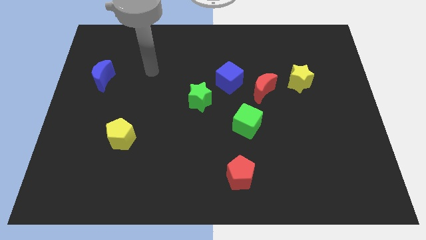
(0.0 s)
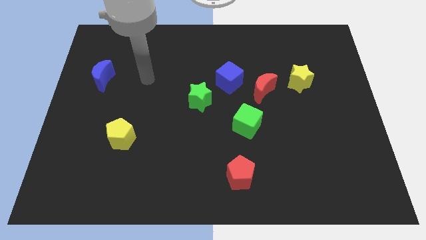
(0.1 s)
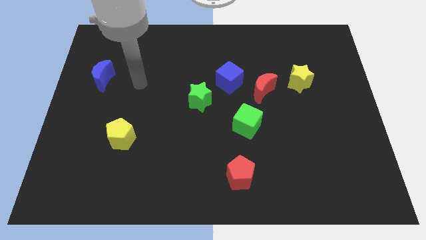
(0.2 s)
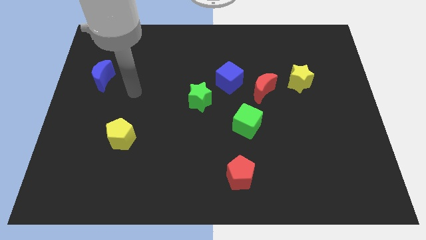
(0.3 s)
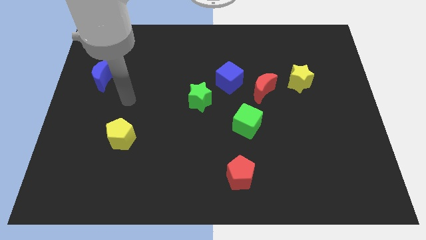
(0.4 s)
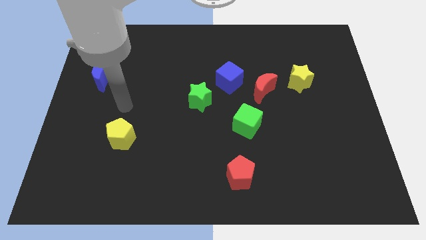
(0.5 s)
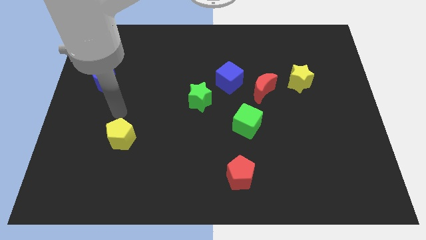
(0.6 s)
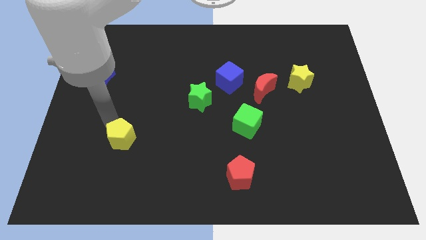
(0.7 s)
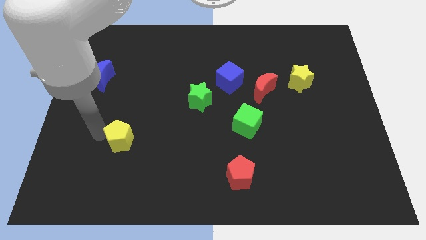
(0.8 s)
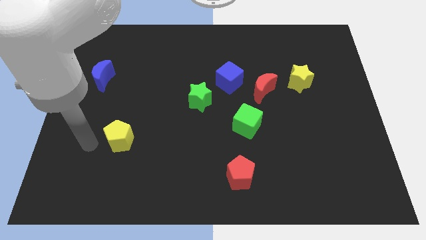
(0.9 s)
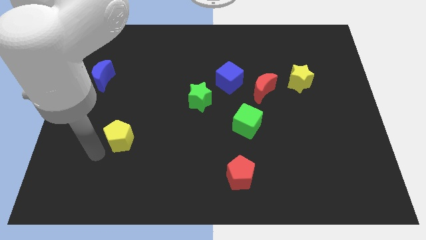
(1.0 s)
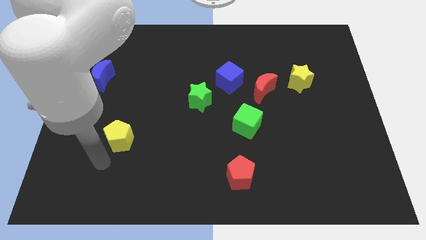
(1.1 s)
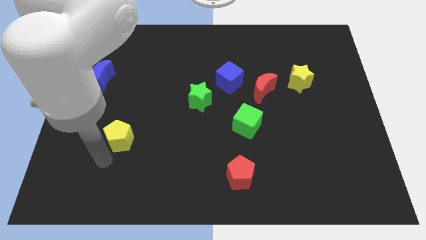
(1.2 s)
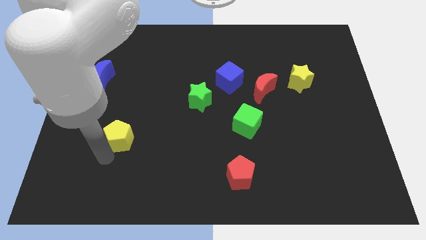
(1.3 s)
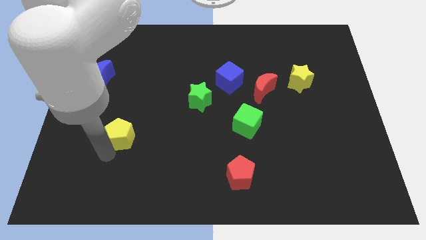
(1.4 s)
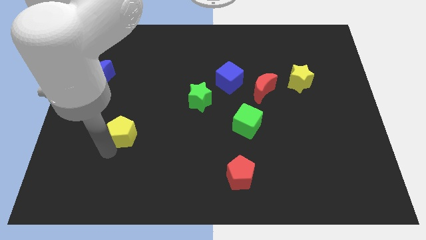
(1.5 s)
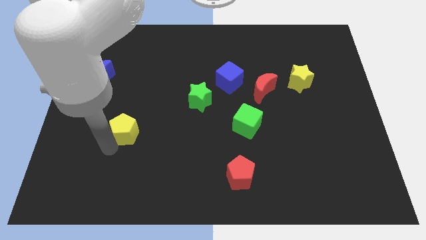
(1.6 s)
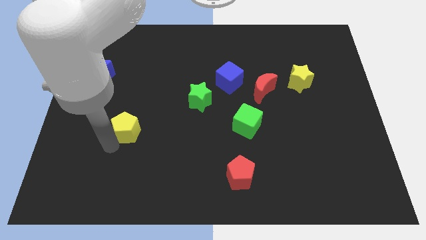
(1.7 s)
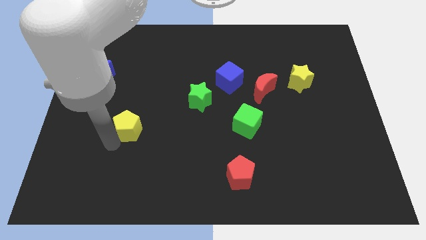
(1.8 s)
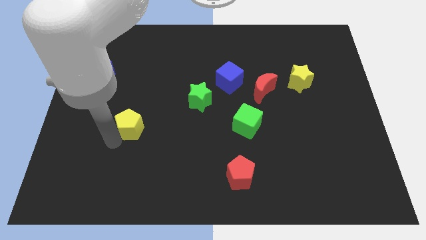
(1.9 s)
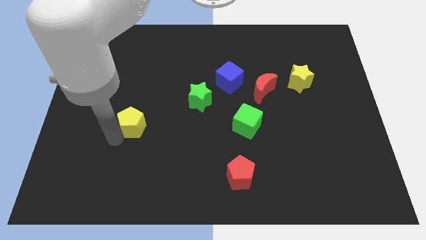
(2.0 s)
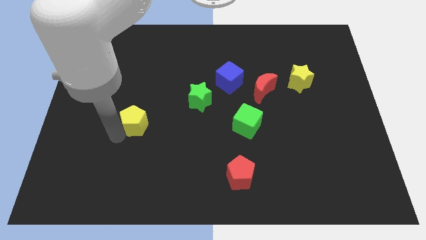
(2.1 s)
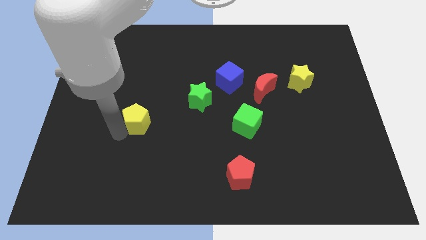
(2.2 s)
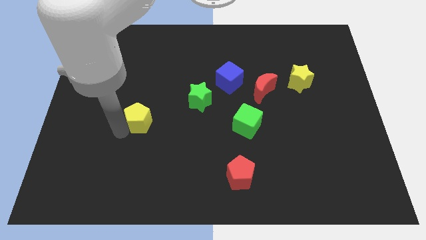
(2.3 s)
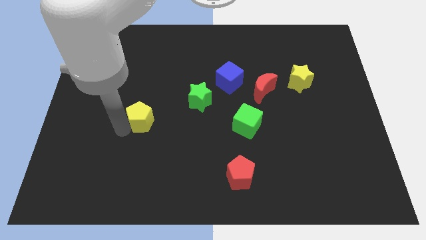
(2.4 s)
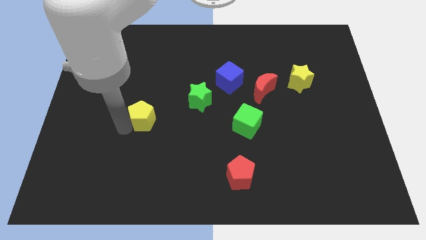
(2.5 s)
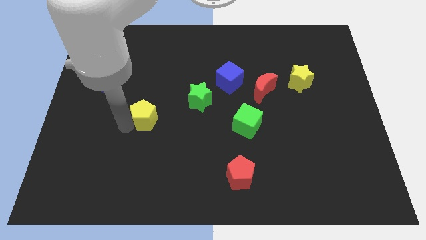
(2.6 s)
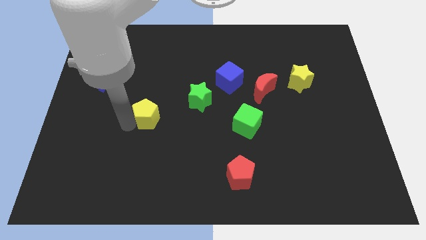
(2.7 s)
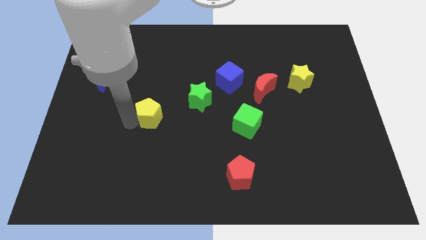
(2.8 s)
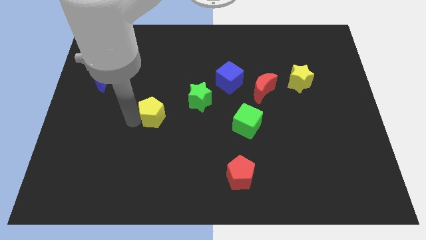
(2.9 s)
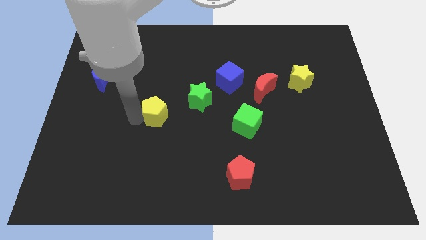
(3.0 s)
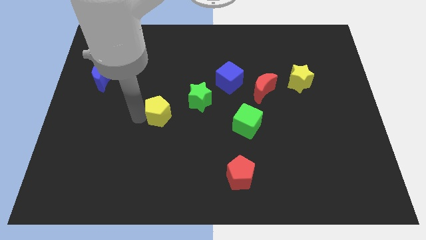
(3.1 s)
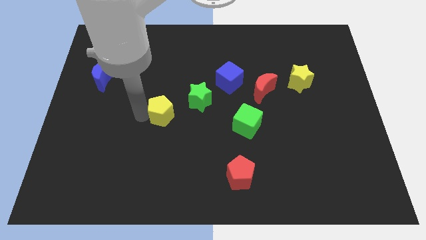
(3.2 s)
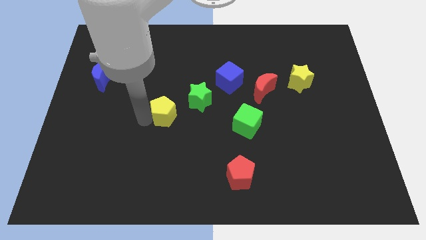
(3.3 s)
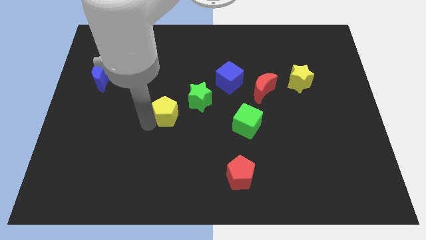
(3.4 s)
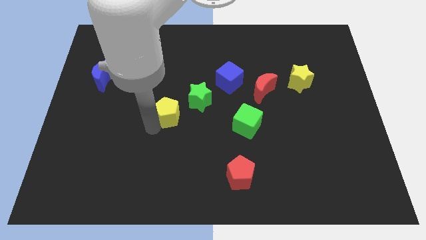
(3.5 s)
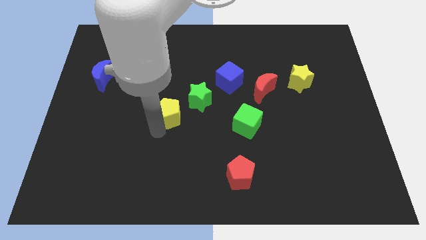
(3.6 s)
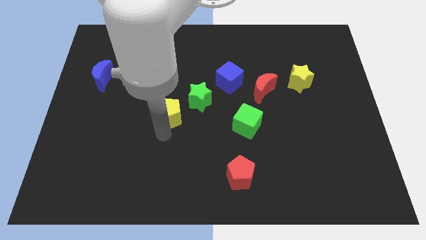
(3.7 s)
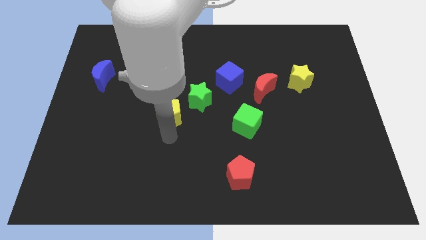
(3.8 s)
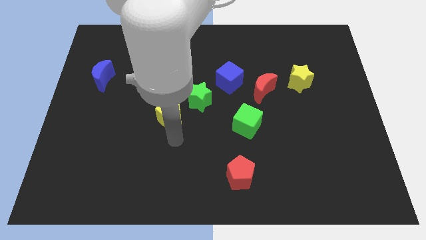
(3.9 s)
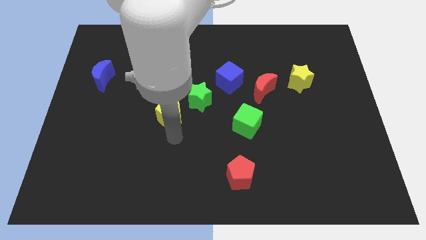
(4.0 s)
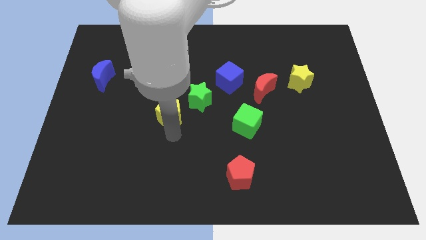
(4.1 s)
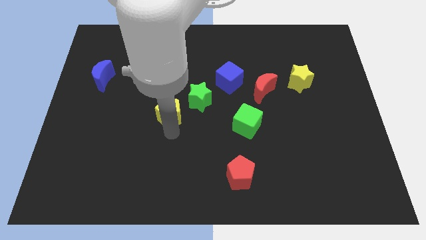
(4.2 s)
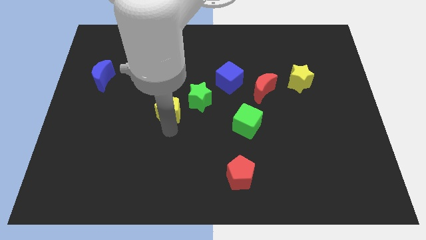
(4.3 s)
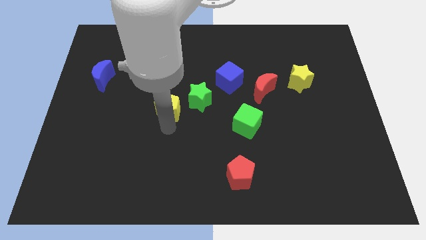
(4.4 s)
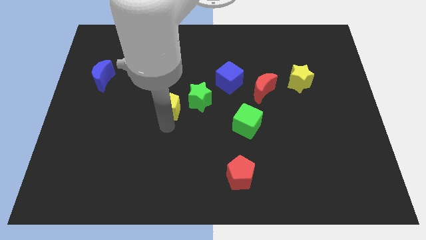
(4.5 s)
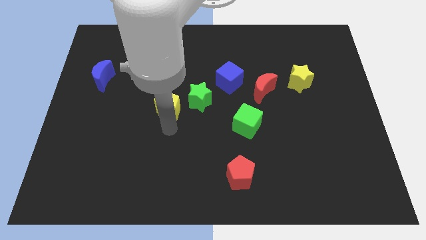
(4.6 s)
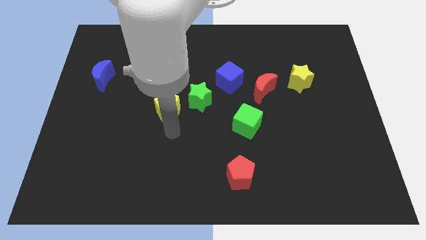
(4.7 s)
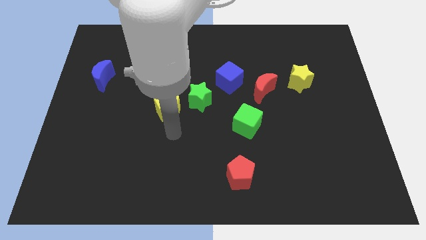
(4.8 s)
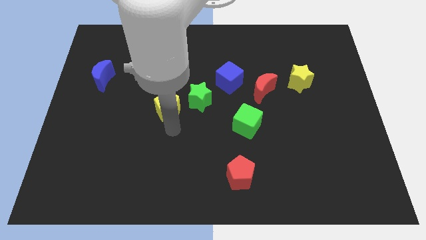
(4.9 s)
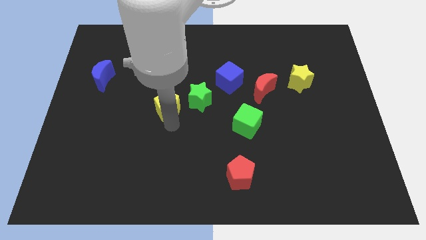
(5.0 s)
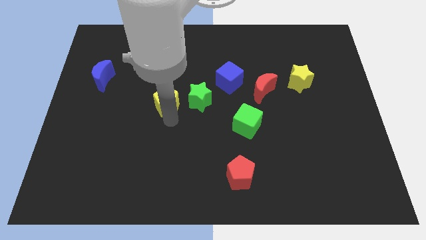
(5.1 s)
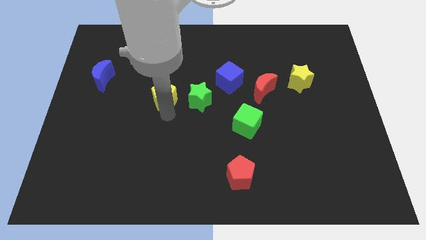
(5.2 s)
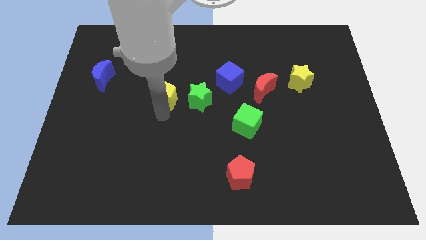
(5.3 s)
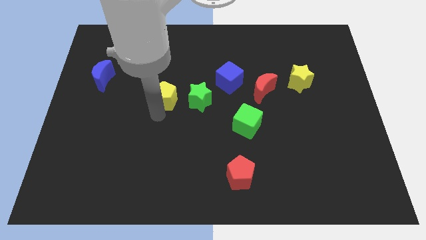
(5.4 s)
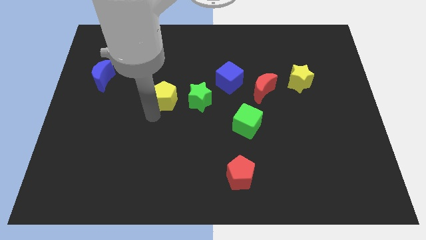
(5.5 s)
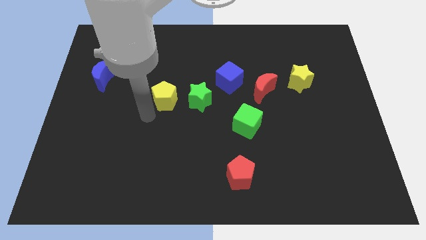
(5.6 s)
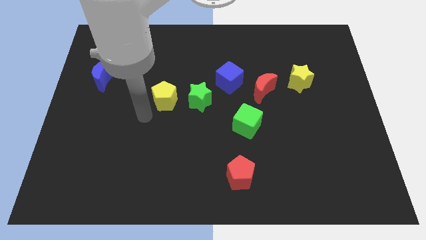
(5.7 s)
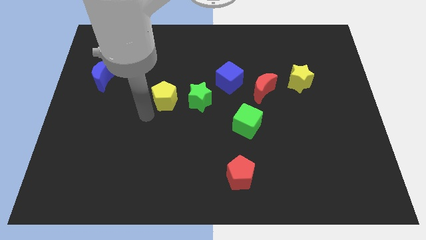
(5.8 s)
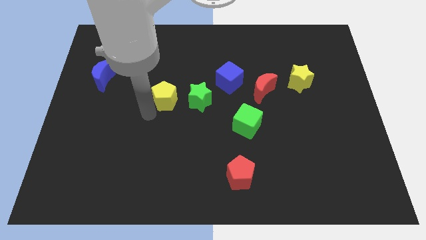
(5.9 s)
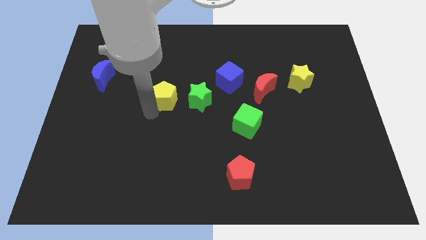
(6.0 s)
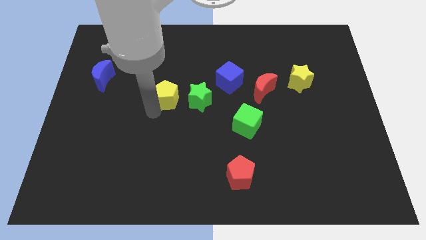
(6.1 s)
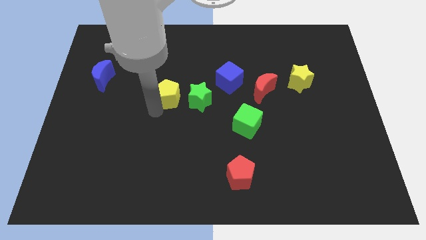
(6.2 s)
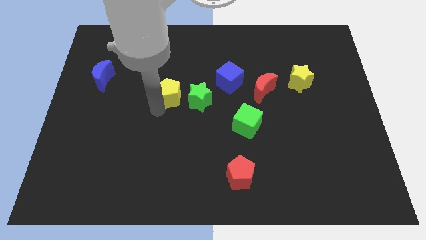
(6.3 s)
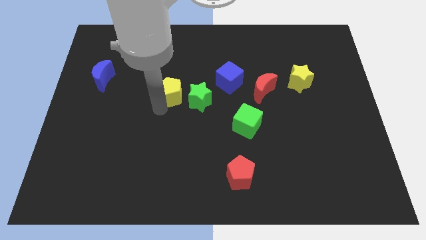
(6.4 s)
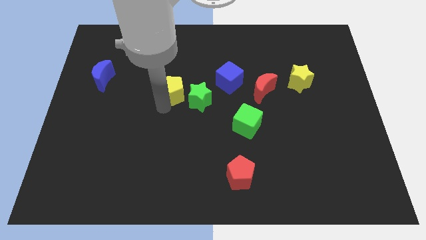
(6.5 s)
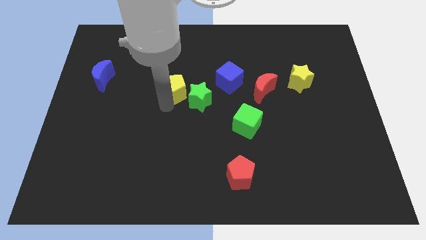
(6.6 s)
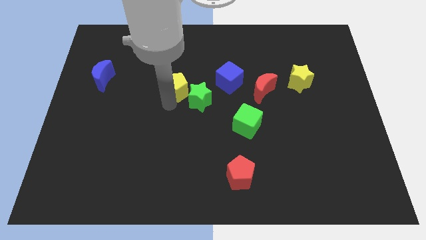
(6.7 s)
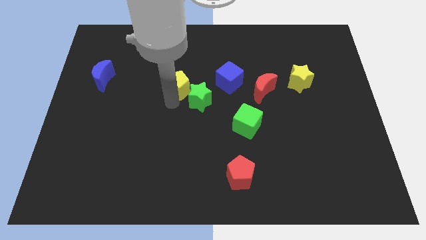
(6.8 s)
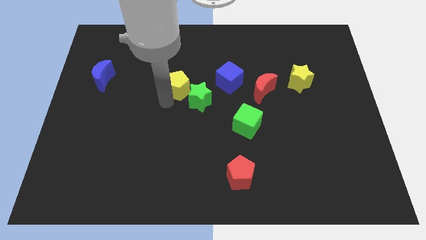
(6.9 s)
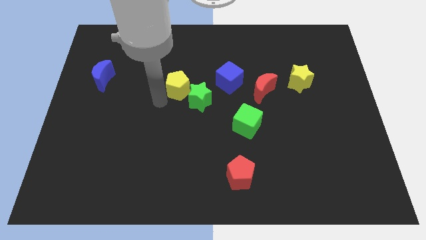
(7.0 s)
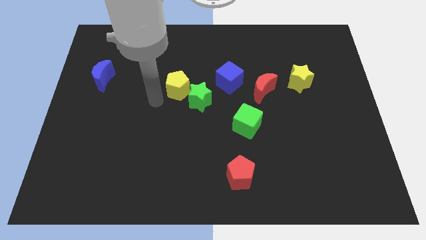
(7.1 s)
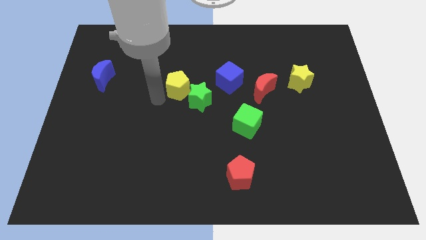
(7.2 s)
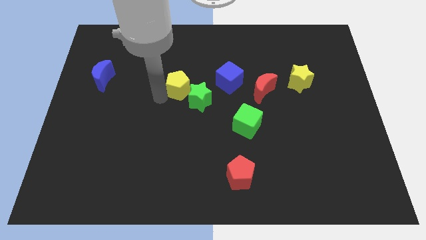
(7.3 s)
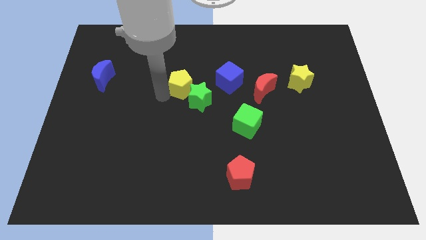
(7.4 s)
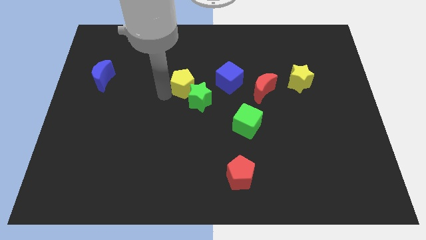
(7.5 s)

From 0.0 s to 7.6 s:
slide the yellow pentagon diagonally upwards and to the right
